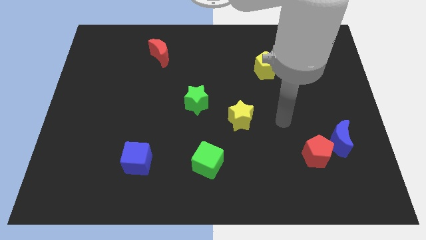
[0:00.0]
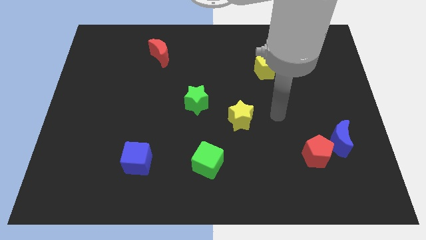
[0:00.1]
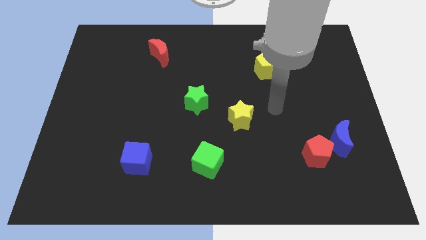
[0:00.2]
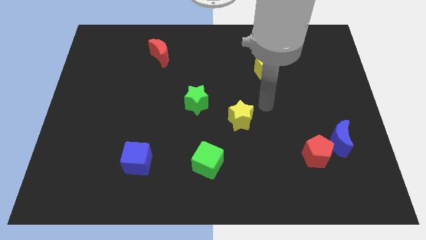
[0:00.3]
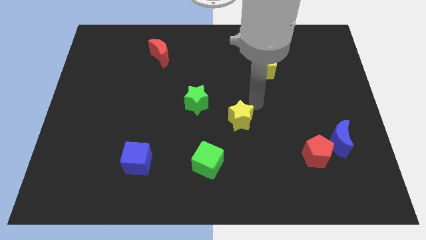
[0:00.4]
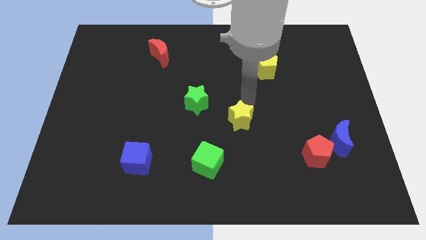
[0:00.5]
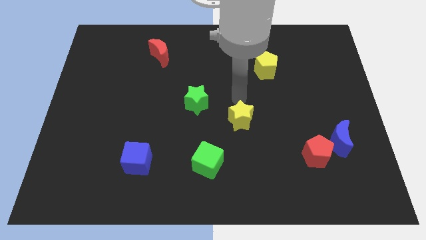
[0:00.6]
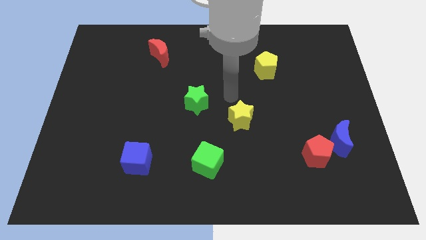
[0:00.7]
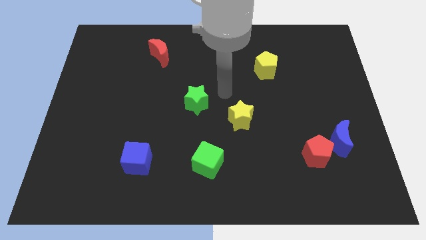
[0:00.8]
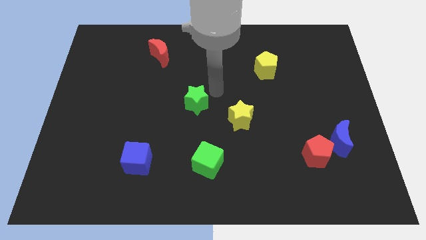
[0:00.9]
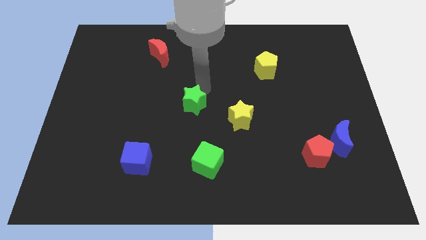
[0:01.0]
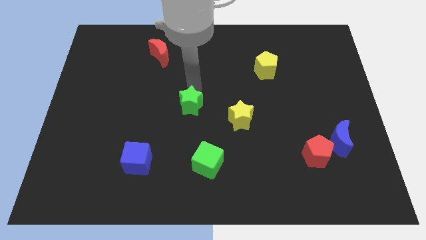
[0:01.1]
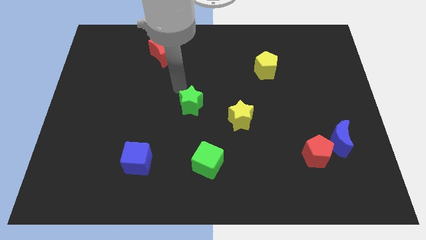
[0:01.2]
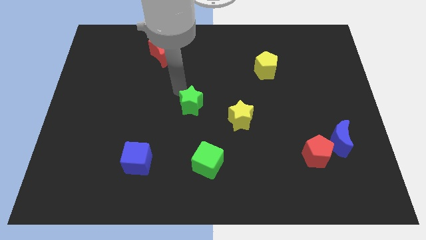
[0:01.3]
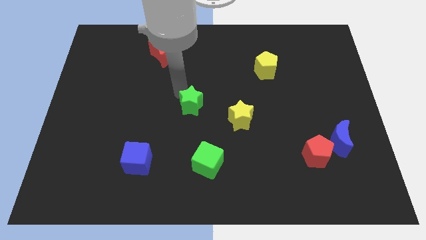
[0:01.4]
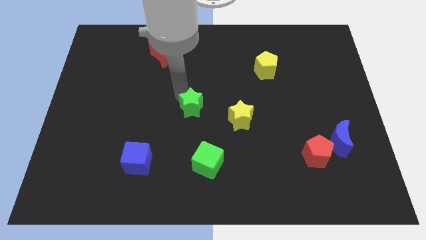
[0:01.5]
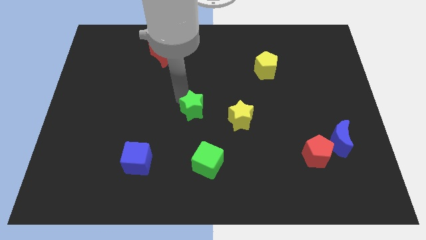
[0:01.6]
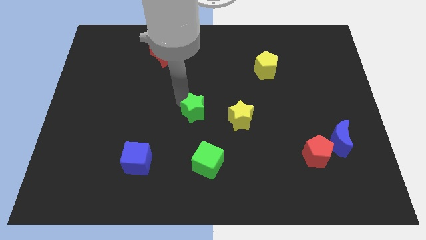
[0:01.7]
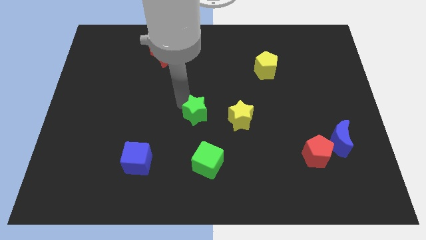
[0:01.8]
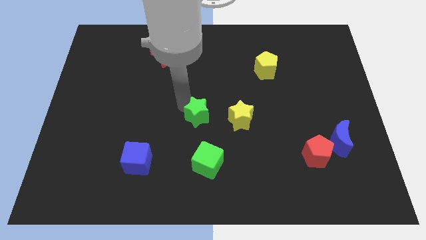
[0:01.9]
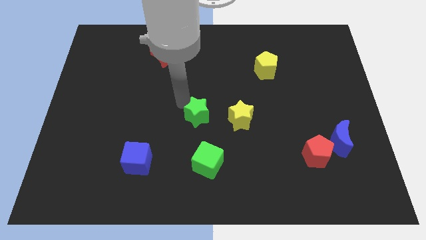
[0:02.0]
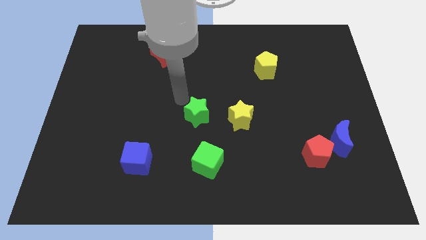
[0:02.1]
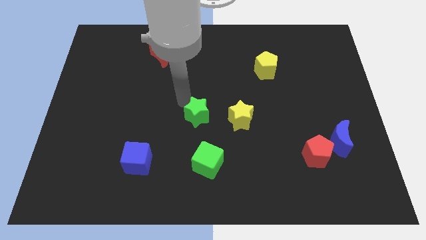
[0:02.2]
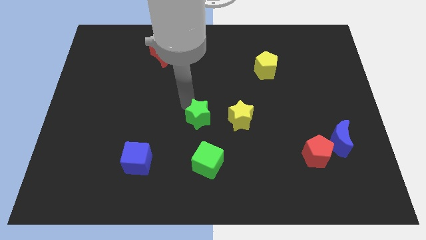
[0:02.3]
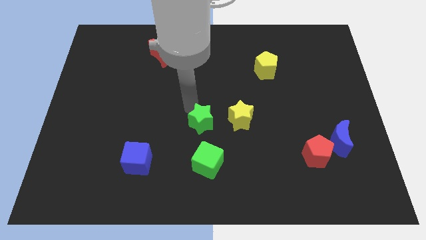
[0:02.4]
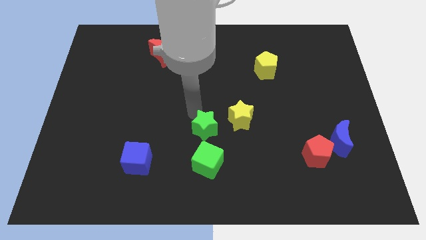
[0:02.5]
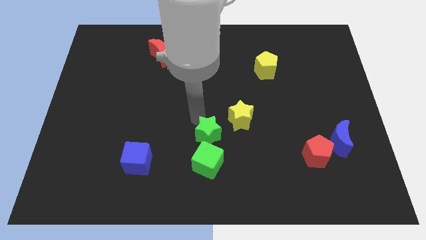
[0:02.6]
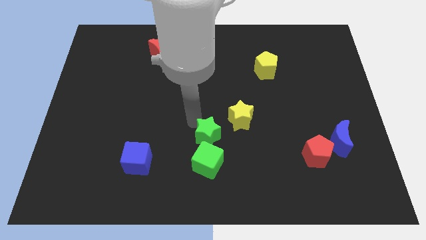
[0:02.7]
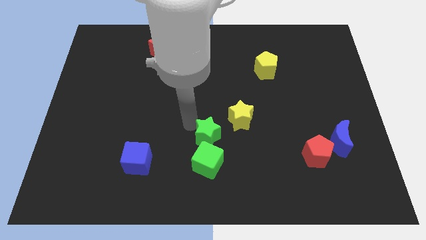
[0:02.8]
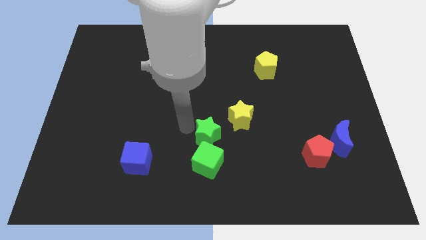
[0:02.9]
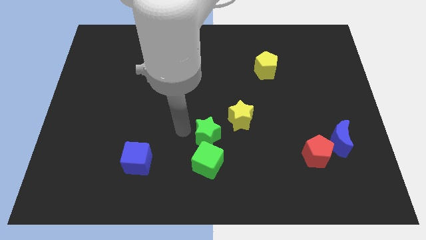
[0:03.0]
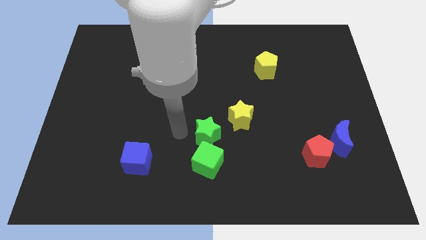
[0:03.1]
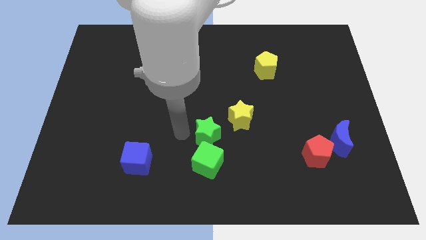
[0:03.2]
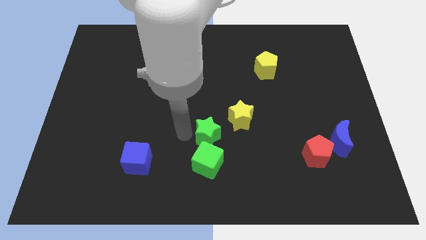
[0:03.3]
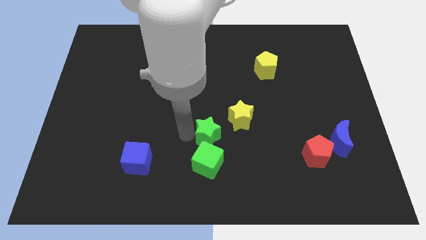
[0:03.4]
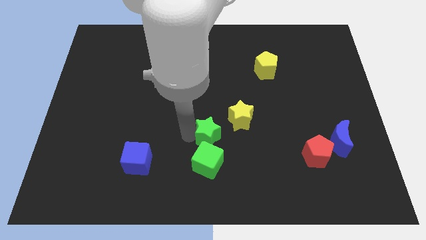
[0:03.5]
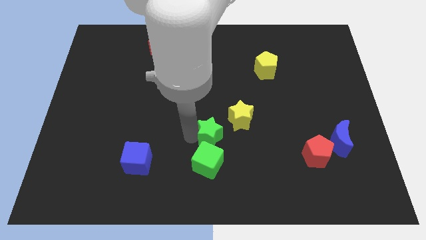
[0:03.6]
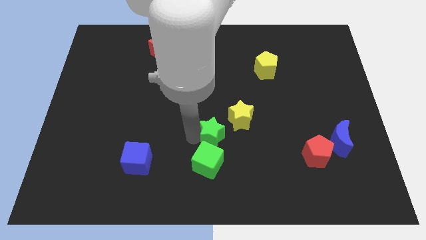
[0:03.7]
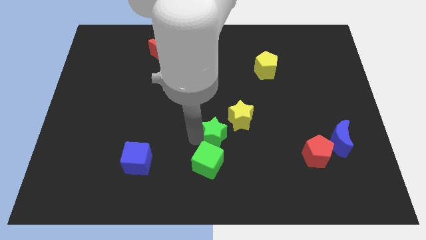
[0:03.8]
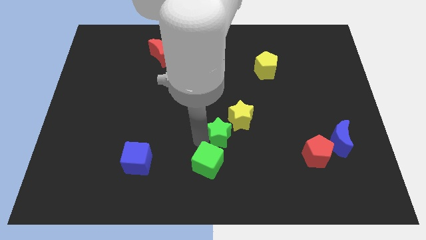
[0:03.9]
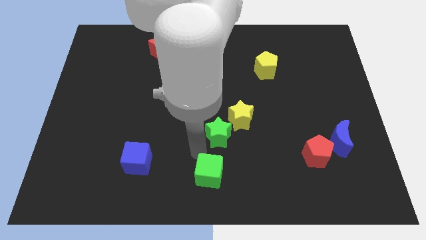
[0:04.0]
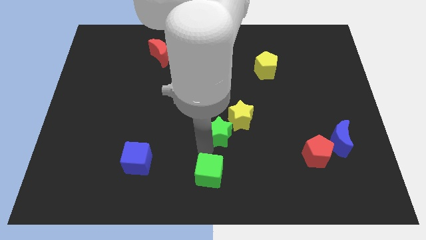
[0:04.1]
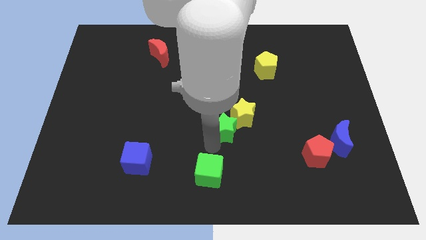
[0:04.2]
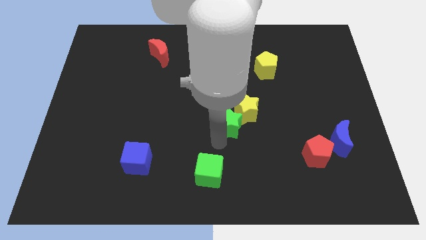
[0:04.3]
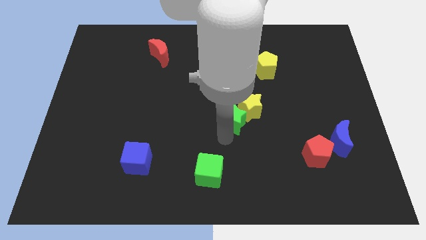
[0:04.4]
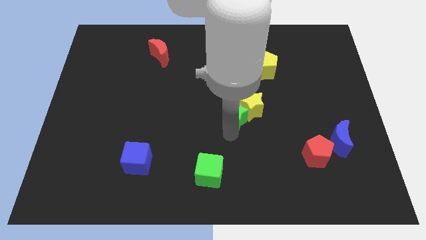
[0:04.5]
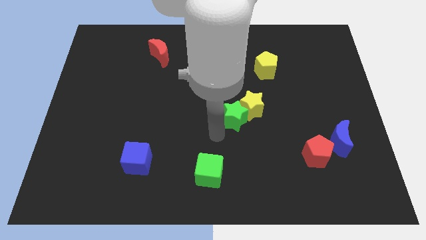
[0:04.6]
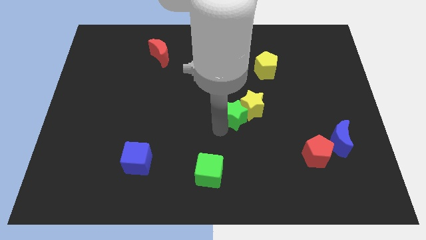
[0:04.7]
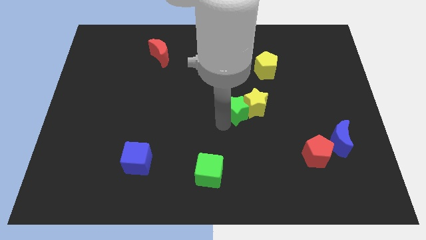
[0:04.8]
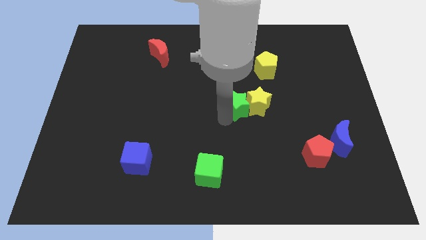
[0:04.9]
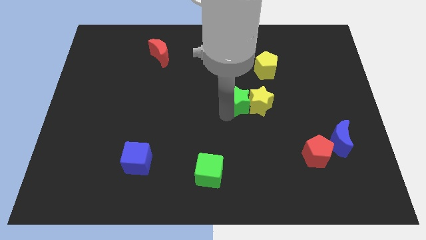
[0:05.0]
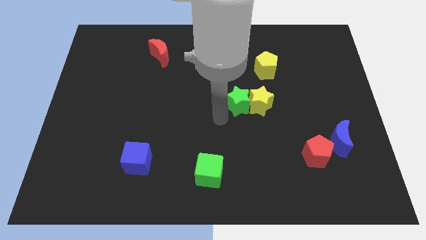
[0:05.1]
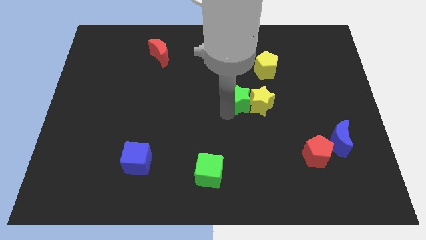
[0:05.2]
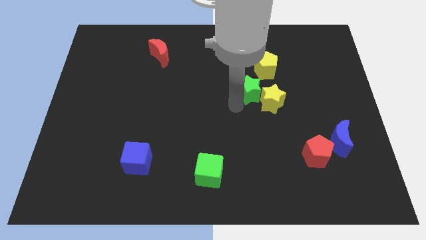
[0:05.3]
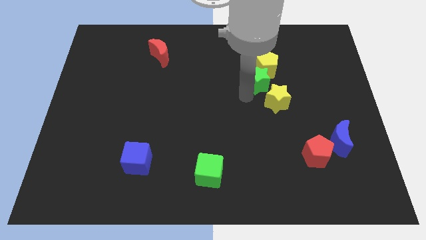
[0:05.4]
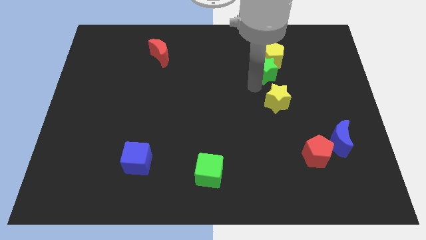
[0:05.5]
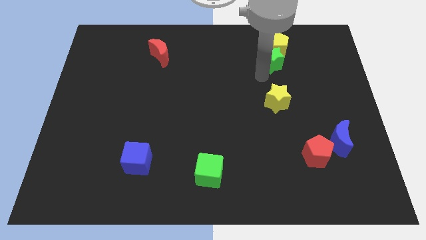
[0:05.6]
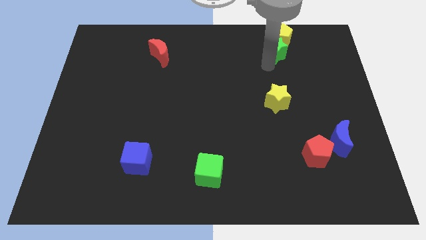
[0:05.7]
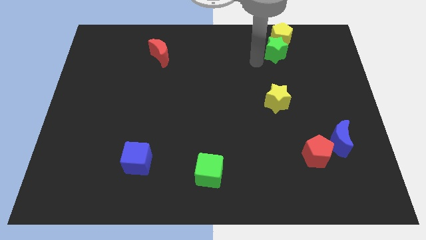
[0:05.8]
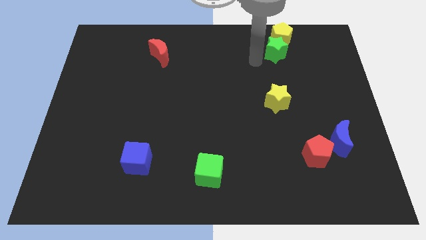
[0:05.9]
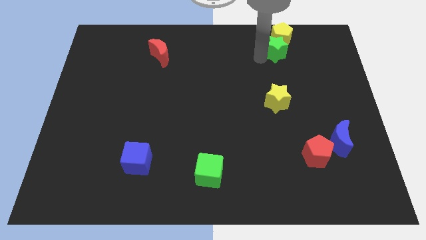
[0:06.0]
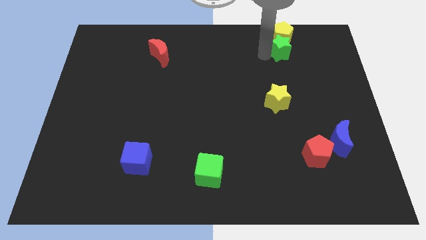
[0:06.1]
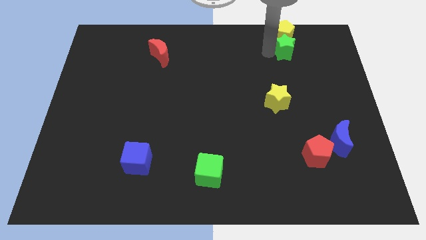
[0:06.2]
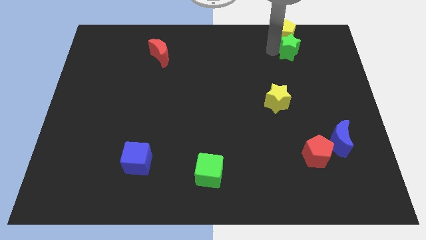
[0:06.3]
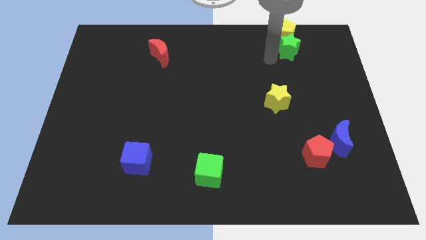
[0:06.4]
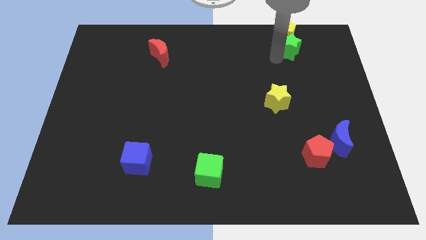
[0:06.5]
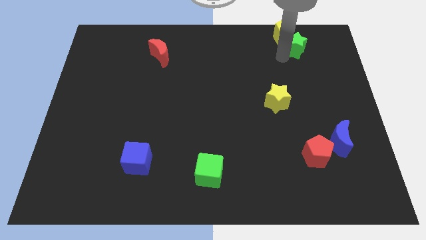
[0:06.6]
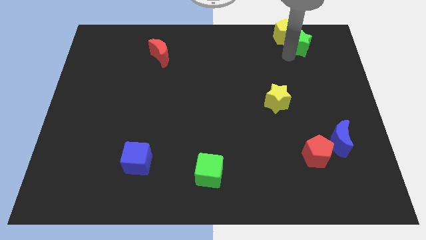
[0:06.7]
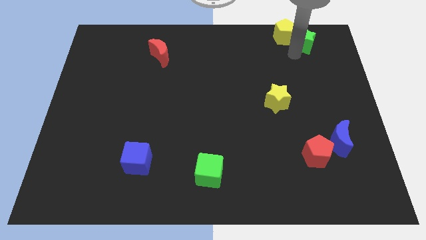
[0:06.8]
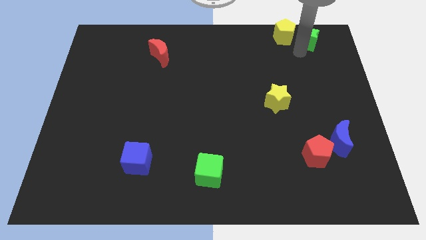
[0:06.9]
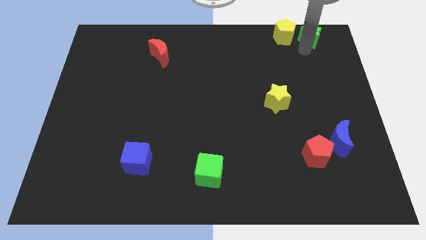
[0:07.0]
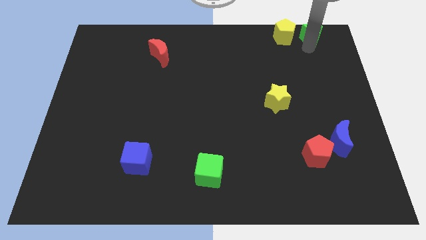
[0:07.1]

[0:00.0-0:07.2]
put the green star to the top right corner
